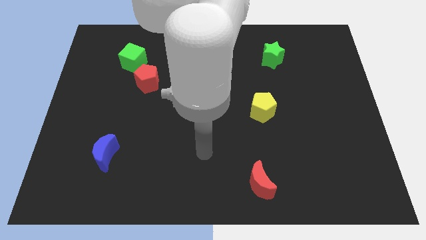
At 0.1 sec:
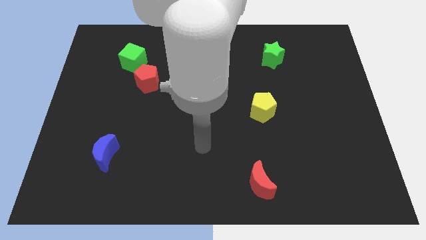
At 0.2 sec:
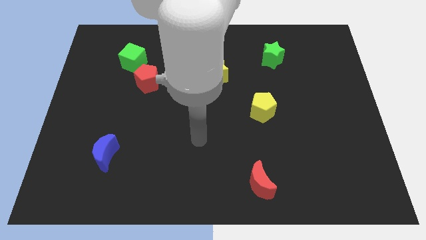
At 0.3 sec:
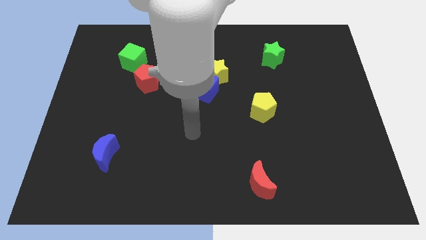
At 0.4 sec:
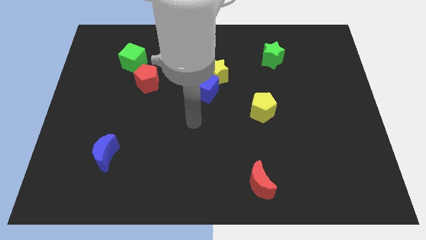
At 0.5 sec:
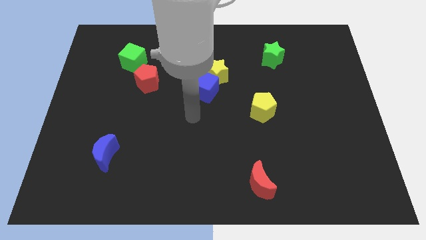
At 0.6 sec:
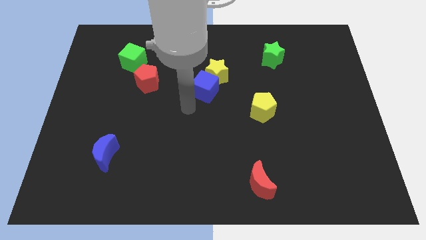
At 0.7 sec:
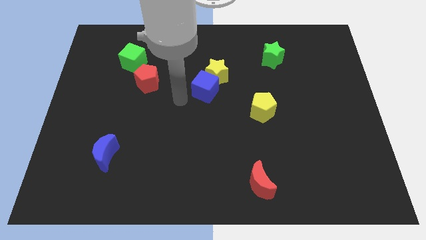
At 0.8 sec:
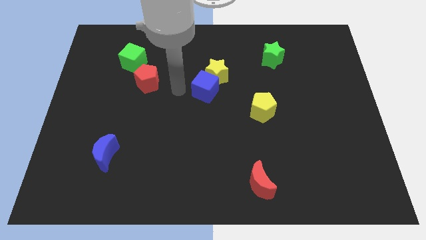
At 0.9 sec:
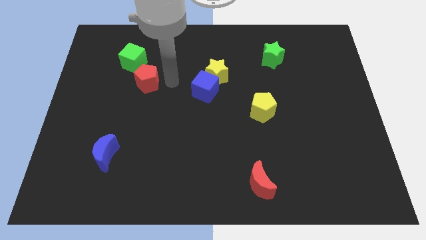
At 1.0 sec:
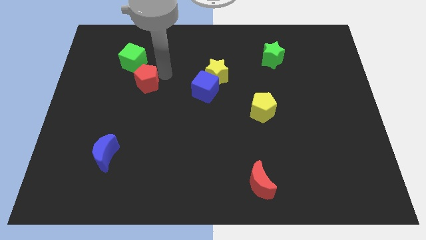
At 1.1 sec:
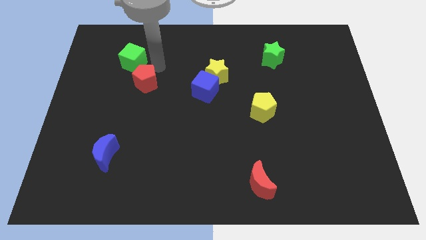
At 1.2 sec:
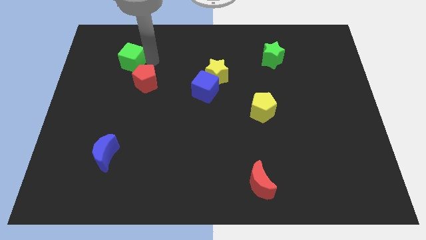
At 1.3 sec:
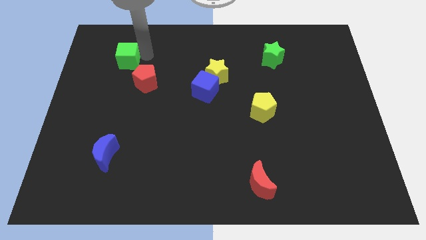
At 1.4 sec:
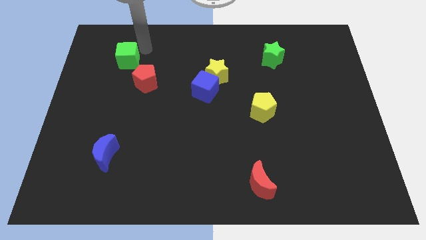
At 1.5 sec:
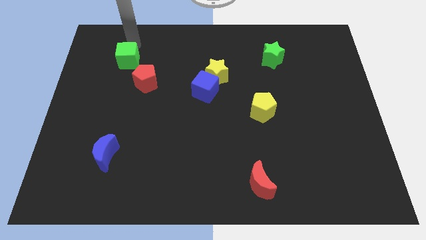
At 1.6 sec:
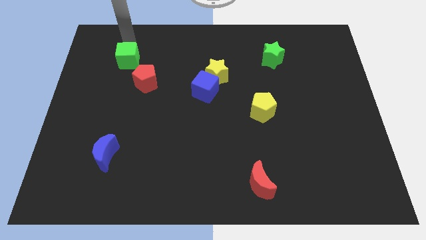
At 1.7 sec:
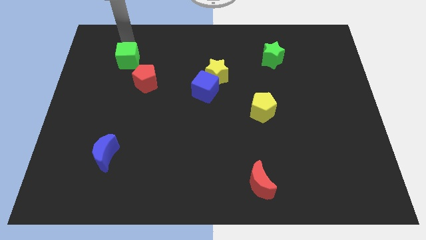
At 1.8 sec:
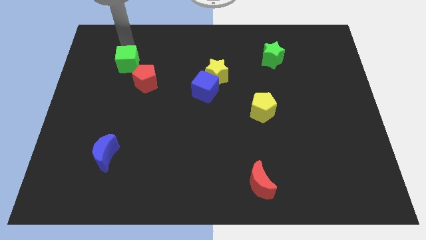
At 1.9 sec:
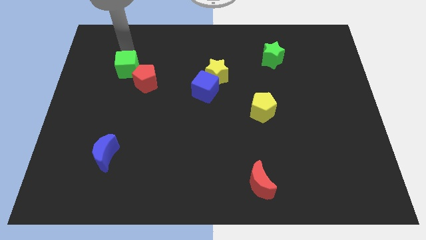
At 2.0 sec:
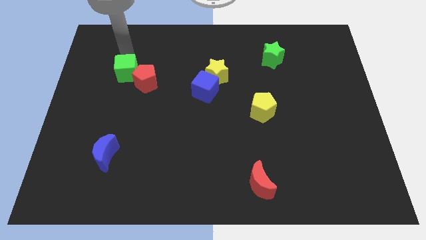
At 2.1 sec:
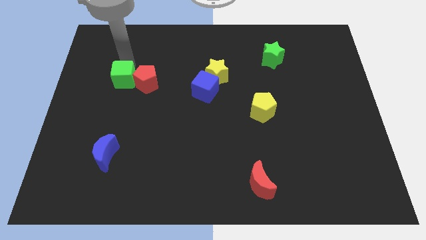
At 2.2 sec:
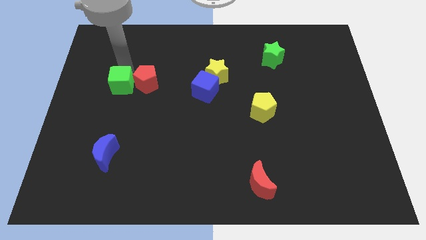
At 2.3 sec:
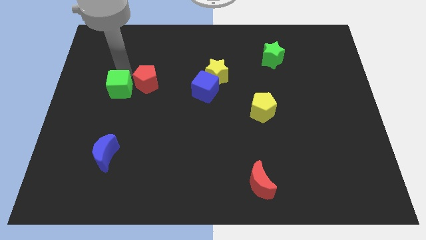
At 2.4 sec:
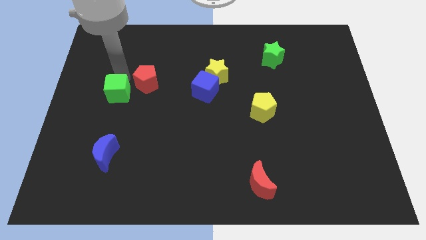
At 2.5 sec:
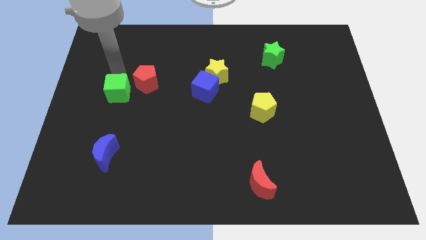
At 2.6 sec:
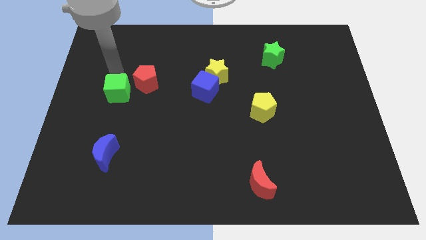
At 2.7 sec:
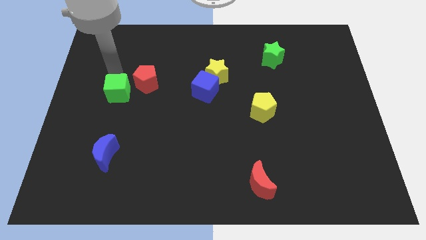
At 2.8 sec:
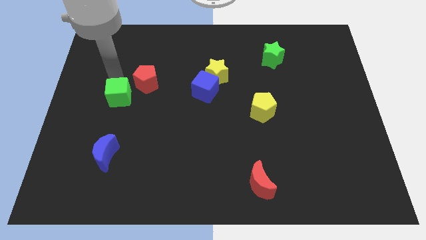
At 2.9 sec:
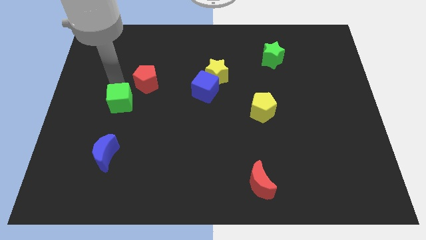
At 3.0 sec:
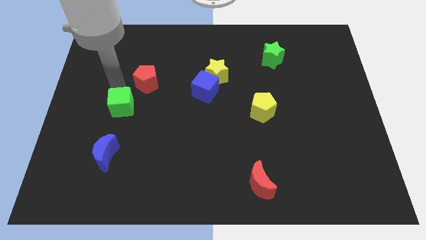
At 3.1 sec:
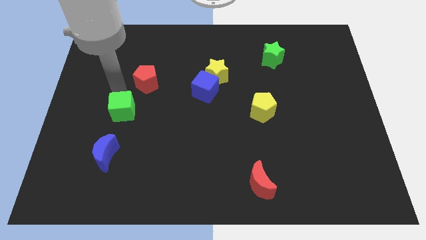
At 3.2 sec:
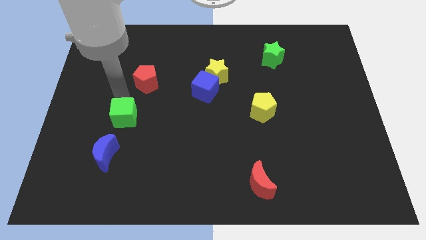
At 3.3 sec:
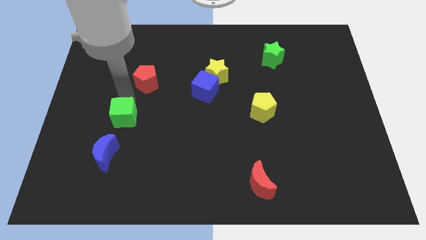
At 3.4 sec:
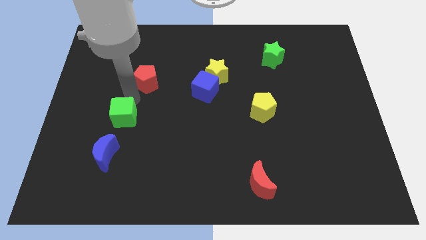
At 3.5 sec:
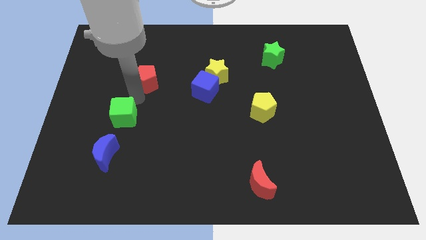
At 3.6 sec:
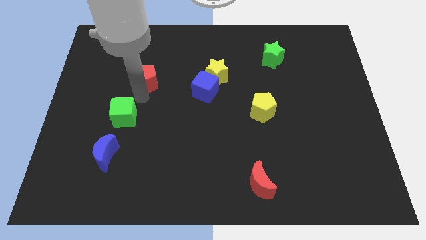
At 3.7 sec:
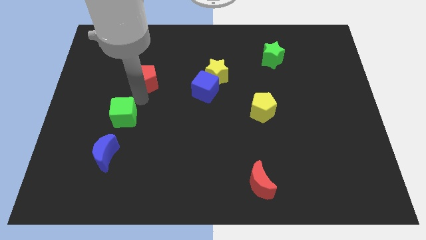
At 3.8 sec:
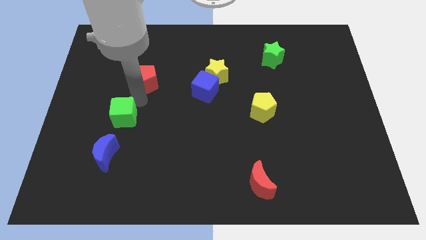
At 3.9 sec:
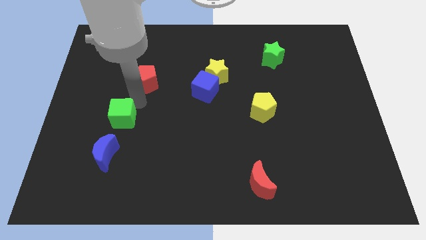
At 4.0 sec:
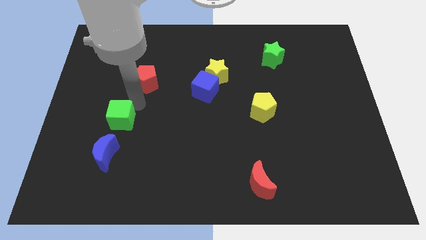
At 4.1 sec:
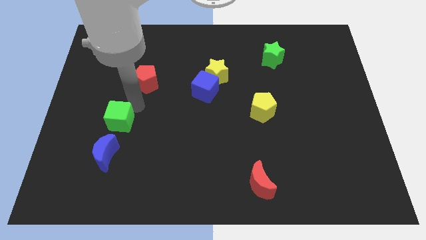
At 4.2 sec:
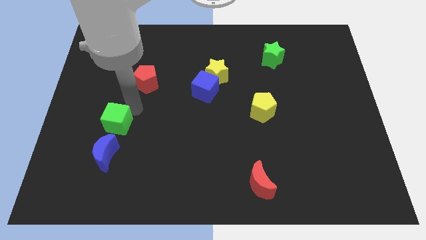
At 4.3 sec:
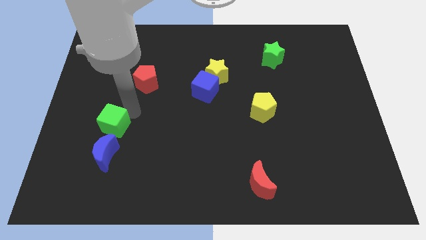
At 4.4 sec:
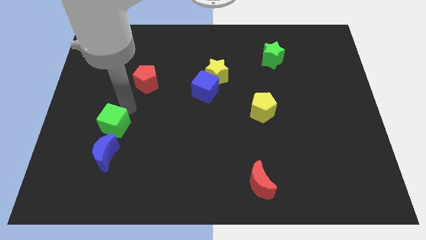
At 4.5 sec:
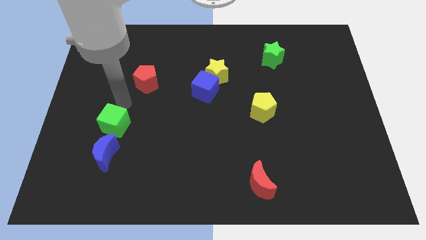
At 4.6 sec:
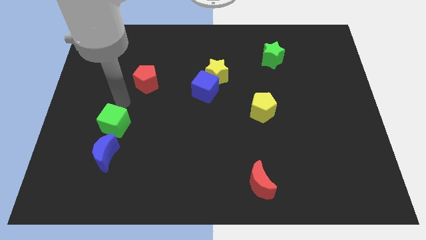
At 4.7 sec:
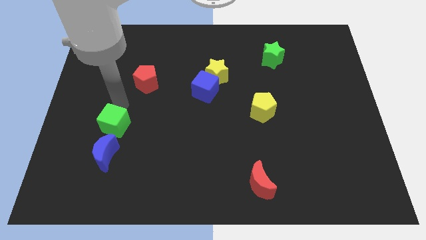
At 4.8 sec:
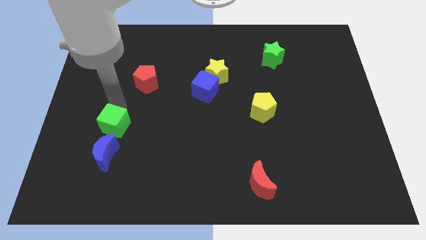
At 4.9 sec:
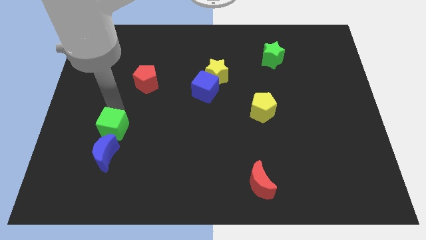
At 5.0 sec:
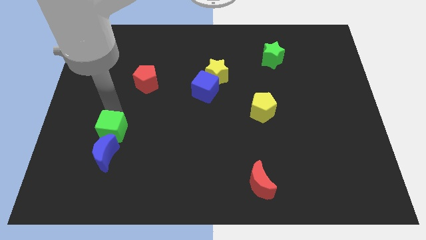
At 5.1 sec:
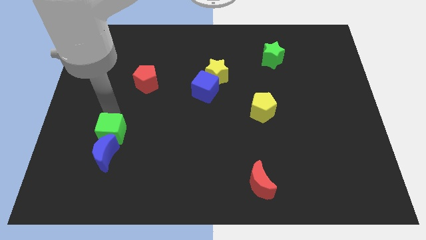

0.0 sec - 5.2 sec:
push the green cube towards the blue moon

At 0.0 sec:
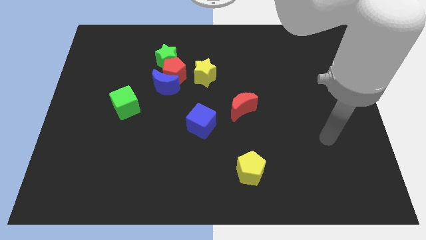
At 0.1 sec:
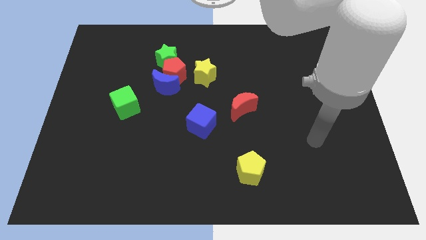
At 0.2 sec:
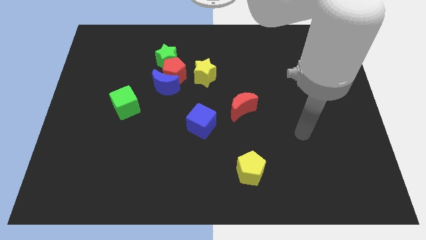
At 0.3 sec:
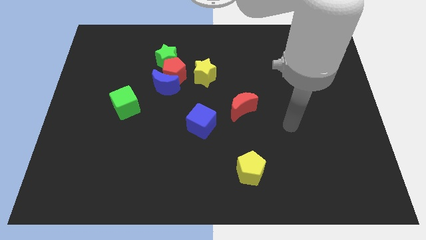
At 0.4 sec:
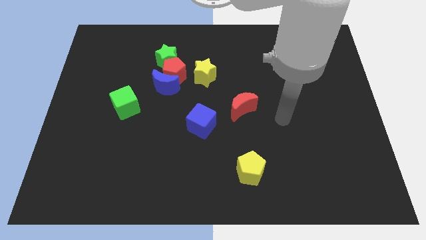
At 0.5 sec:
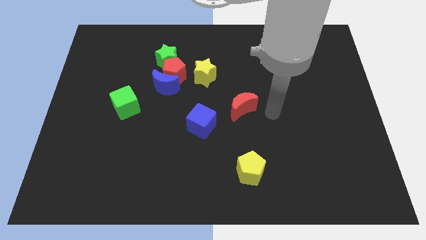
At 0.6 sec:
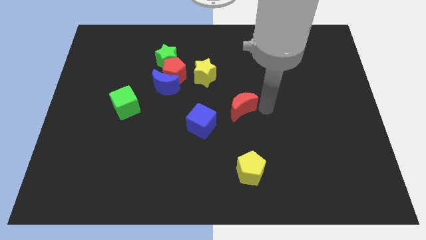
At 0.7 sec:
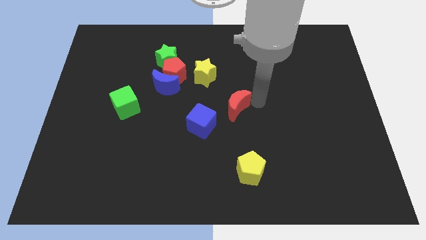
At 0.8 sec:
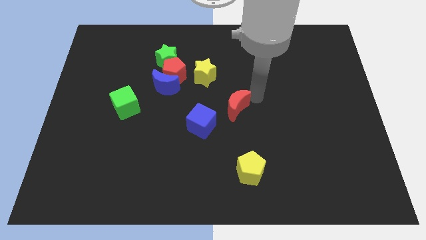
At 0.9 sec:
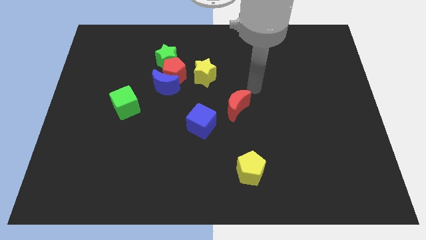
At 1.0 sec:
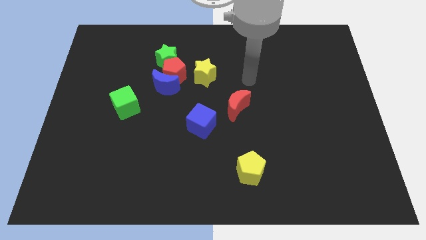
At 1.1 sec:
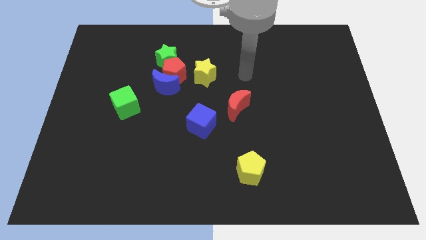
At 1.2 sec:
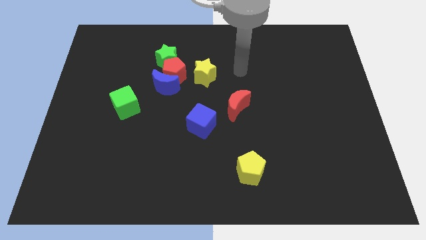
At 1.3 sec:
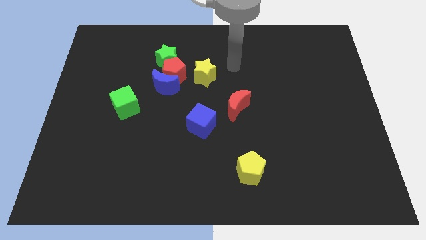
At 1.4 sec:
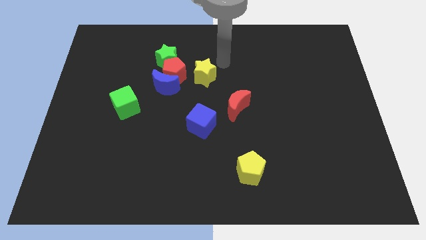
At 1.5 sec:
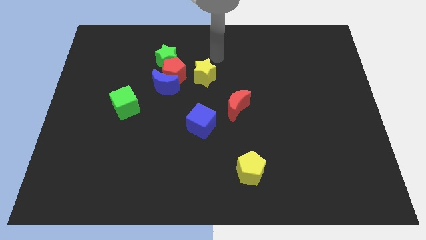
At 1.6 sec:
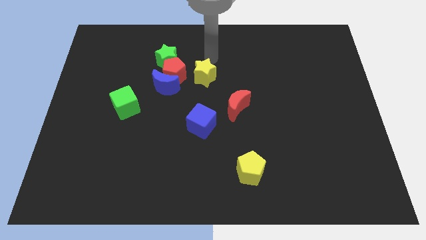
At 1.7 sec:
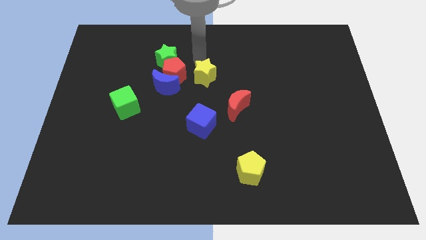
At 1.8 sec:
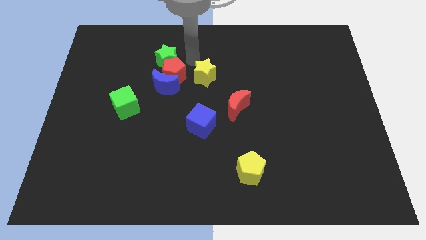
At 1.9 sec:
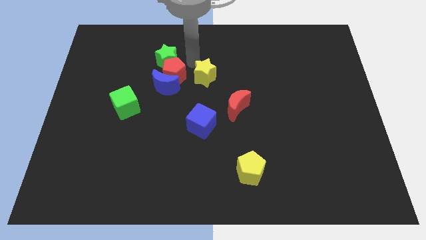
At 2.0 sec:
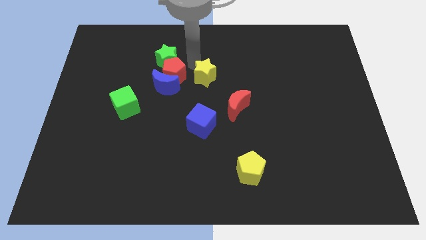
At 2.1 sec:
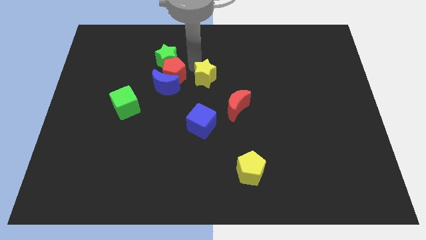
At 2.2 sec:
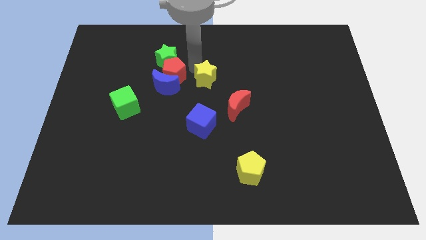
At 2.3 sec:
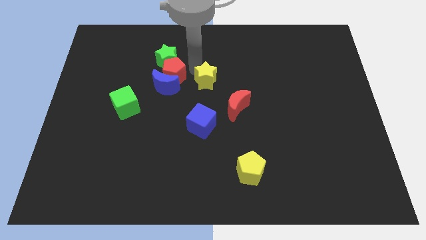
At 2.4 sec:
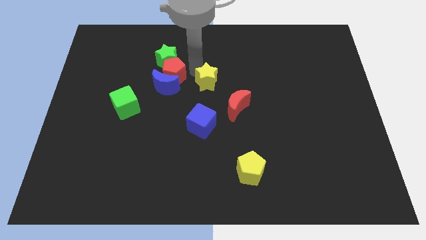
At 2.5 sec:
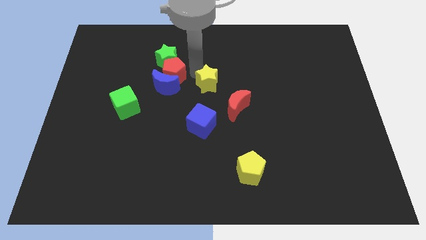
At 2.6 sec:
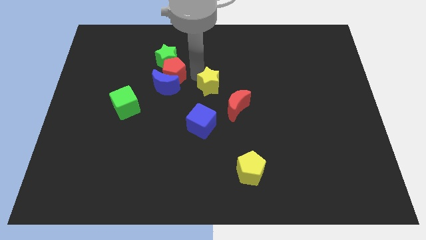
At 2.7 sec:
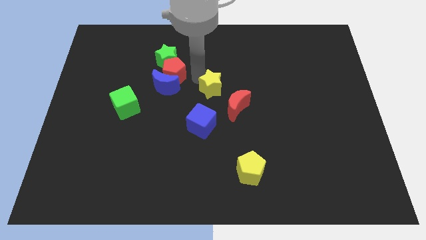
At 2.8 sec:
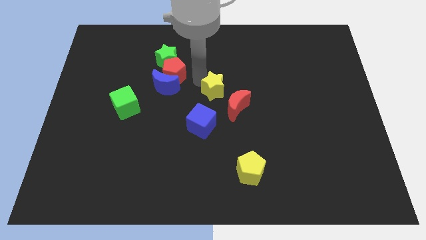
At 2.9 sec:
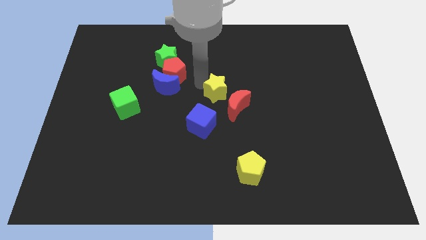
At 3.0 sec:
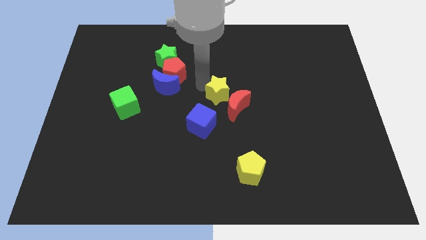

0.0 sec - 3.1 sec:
push the yellow star next to the red moon

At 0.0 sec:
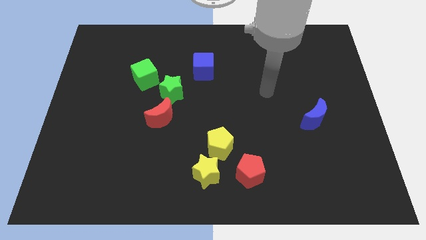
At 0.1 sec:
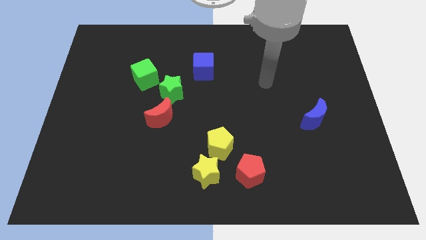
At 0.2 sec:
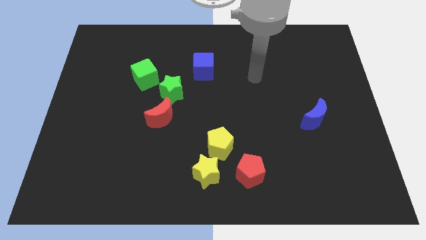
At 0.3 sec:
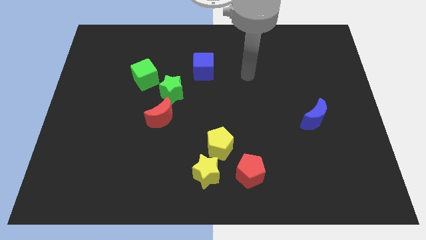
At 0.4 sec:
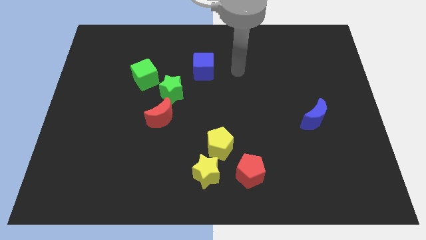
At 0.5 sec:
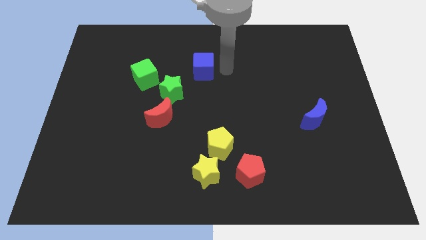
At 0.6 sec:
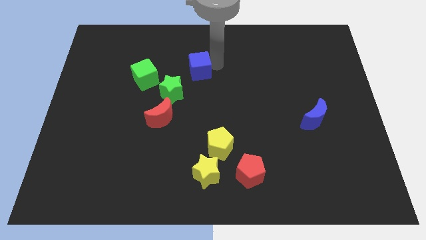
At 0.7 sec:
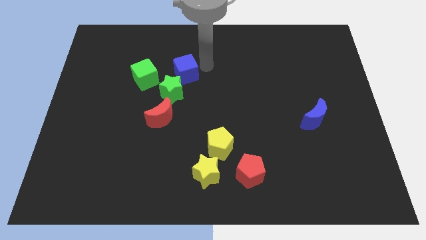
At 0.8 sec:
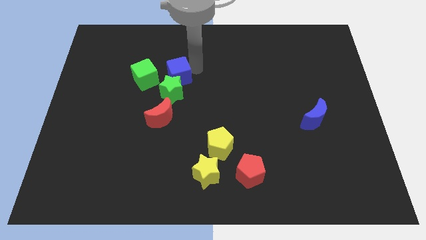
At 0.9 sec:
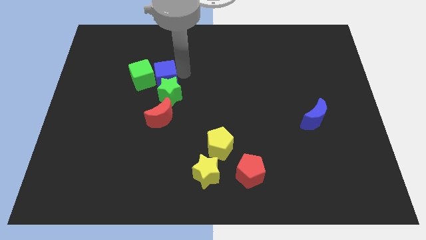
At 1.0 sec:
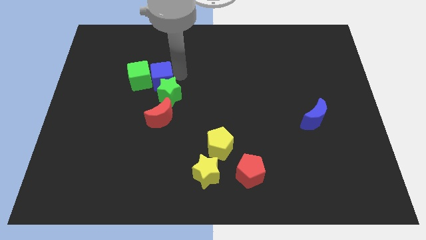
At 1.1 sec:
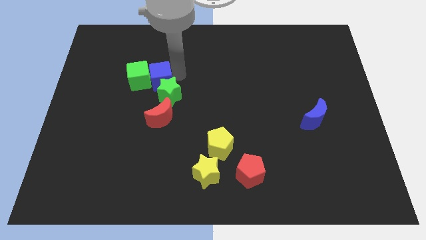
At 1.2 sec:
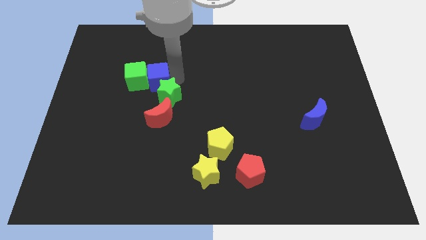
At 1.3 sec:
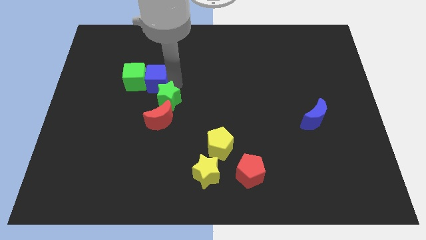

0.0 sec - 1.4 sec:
move the green star next to the red moon
